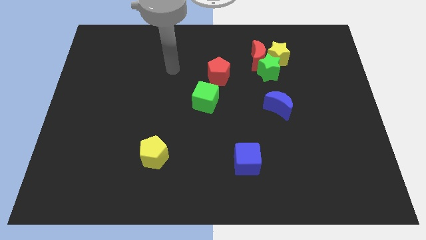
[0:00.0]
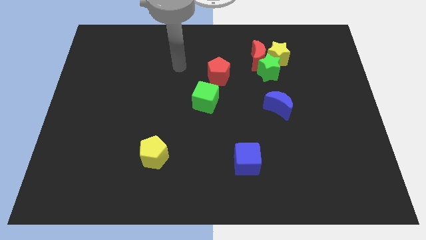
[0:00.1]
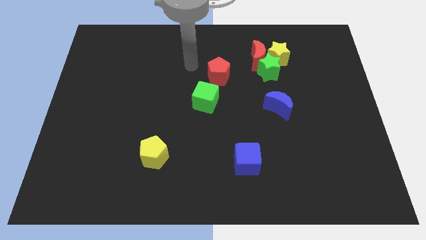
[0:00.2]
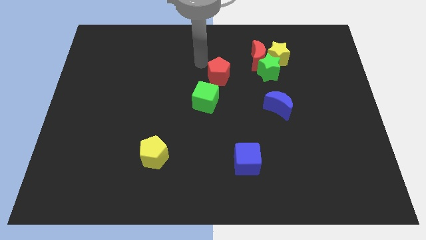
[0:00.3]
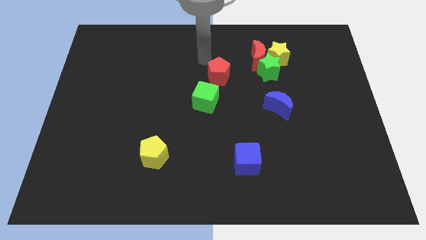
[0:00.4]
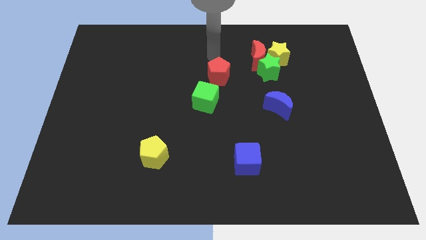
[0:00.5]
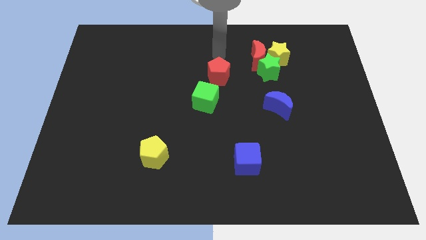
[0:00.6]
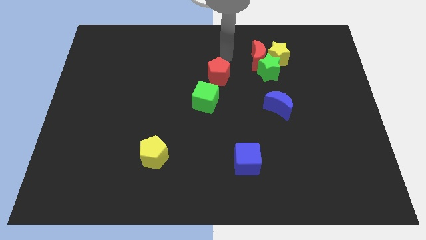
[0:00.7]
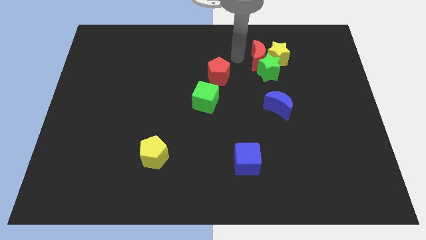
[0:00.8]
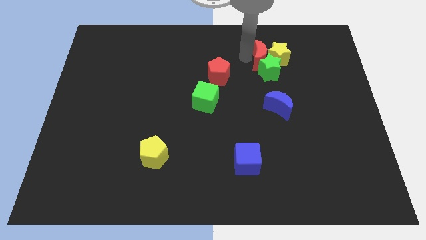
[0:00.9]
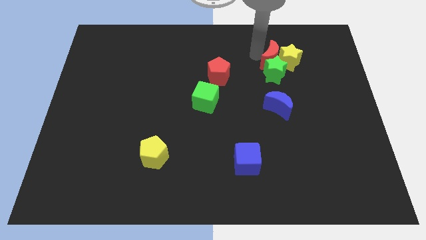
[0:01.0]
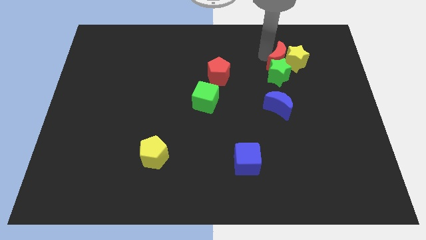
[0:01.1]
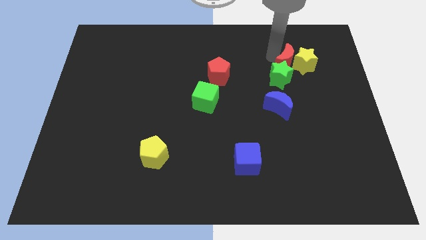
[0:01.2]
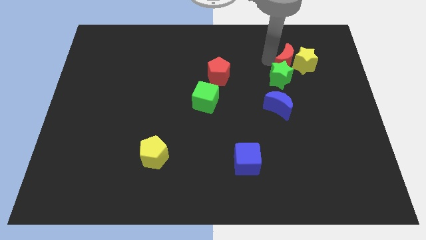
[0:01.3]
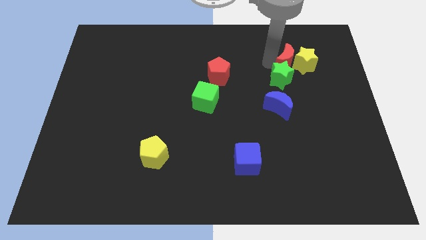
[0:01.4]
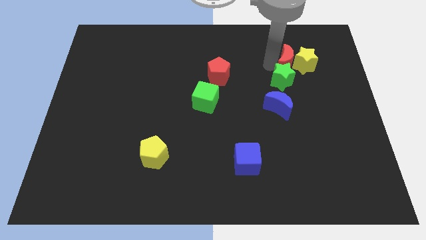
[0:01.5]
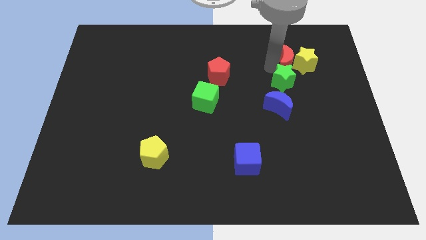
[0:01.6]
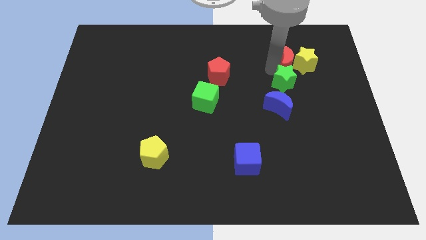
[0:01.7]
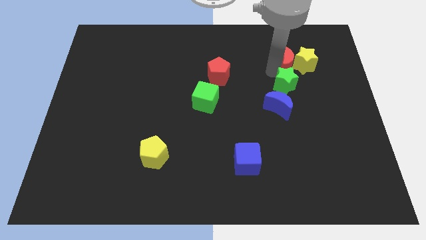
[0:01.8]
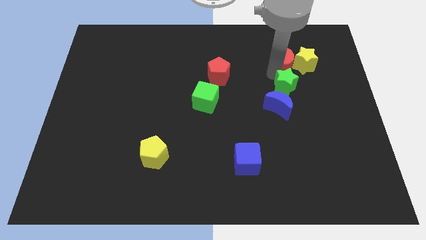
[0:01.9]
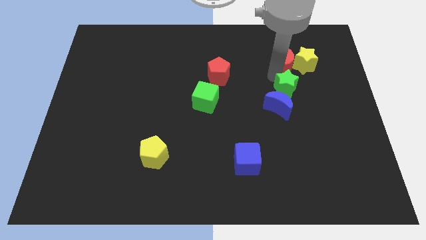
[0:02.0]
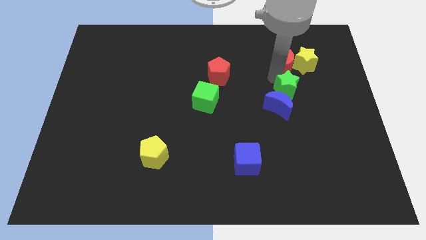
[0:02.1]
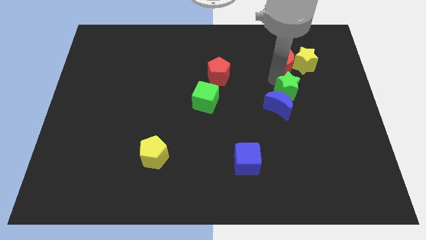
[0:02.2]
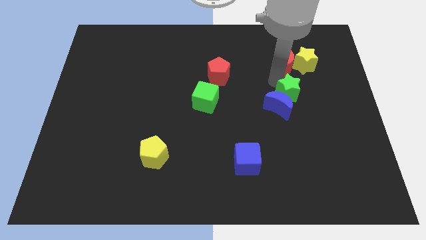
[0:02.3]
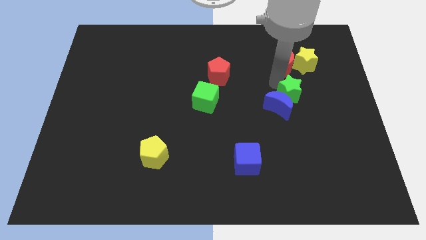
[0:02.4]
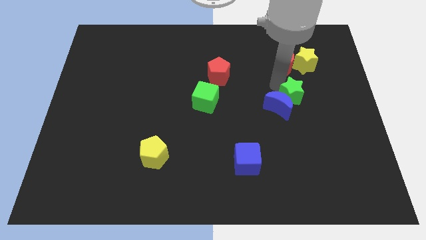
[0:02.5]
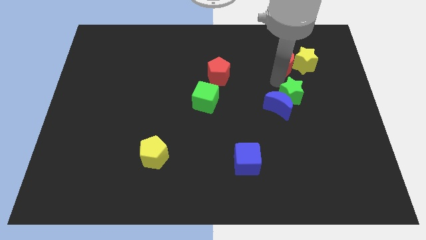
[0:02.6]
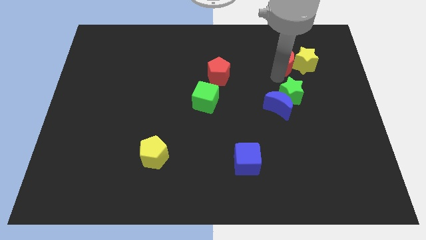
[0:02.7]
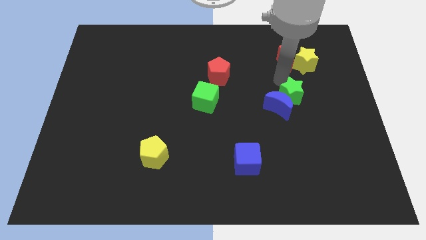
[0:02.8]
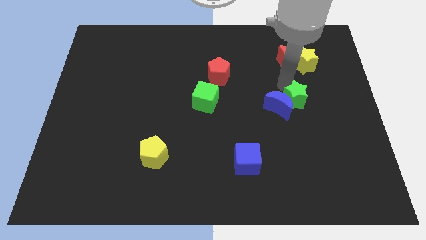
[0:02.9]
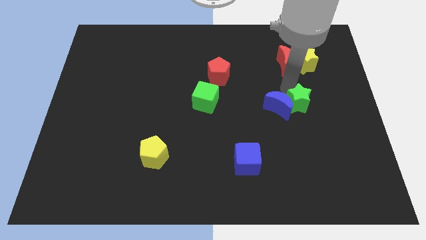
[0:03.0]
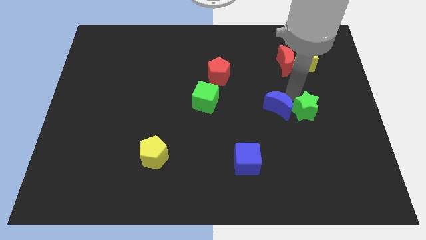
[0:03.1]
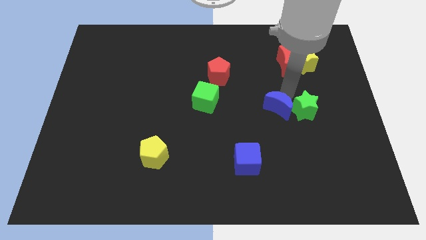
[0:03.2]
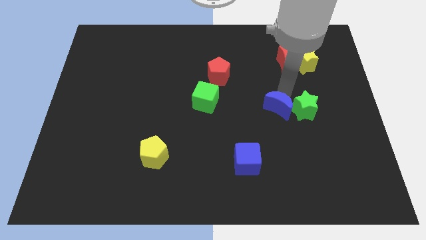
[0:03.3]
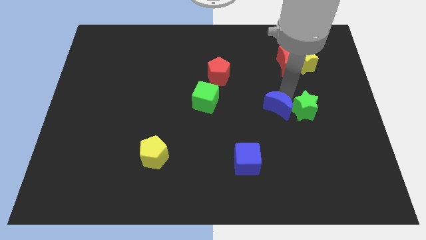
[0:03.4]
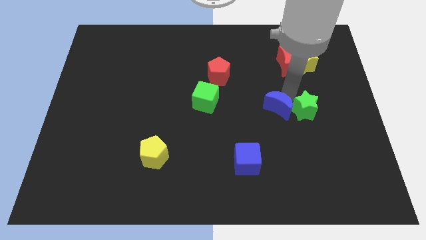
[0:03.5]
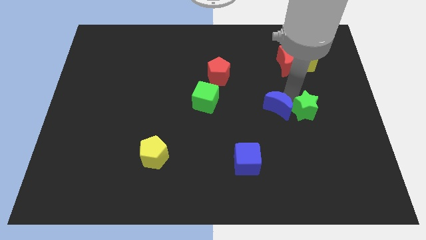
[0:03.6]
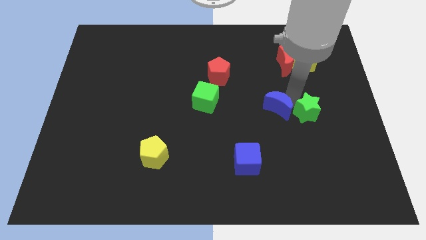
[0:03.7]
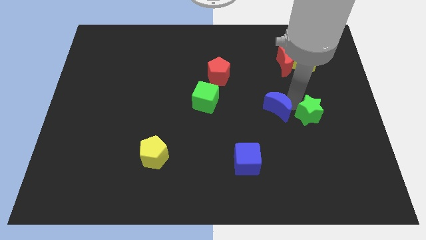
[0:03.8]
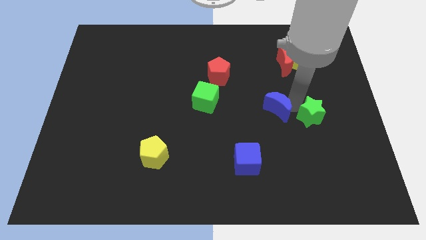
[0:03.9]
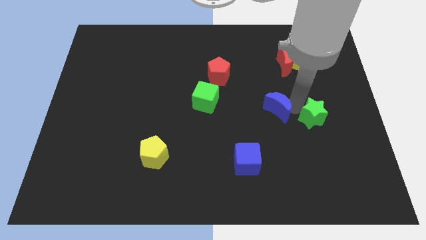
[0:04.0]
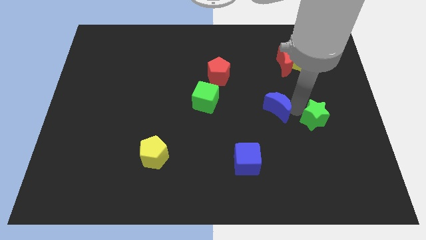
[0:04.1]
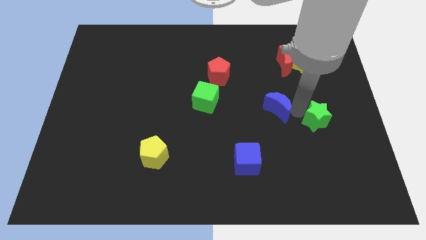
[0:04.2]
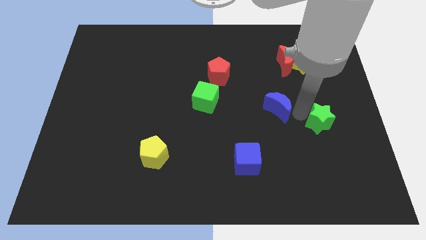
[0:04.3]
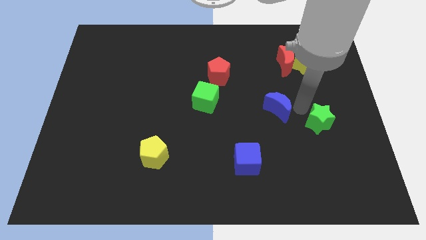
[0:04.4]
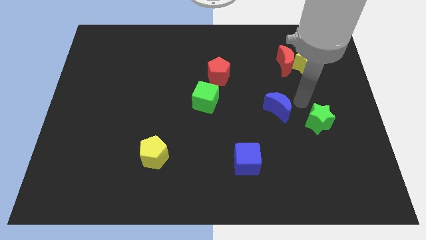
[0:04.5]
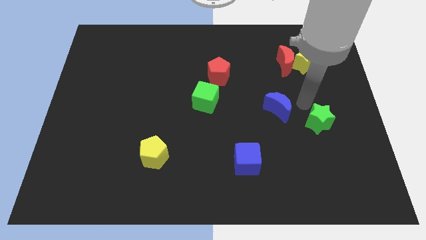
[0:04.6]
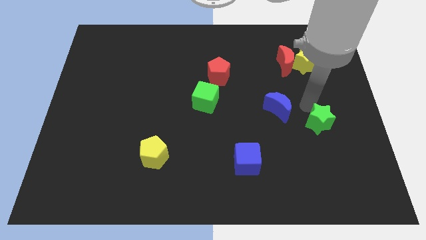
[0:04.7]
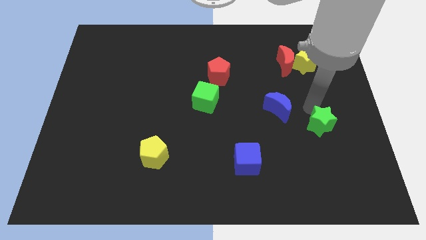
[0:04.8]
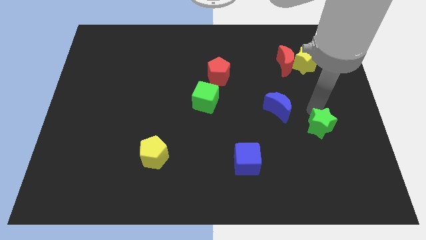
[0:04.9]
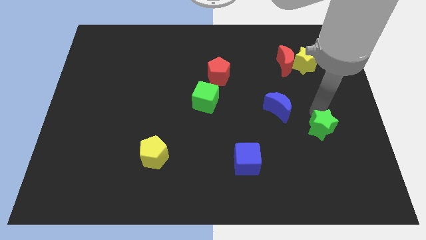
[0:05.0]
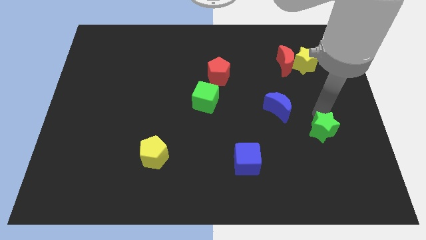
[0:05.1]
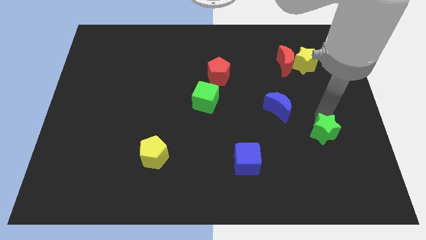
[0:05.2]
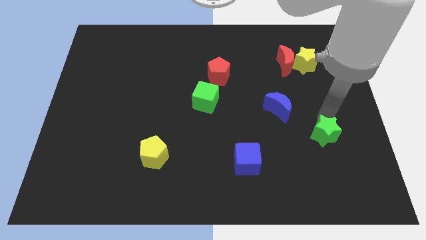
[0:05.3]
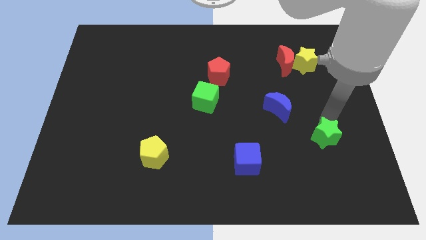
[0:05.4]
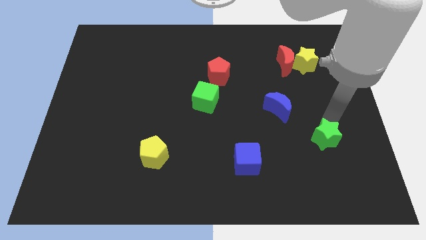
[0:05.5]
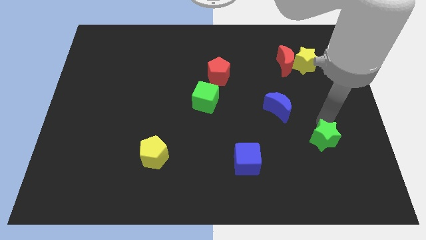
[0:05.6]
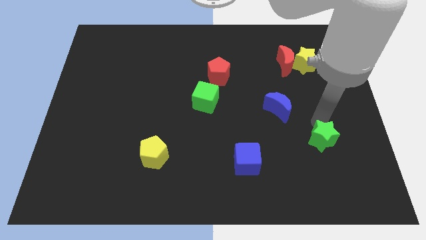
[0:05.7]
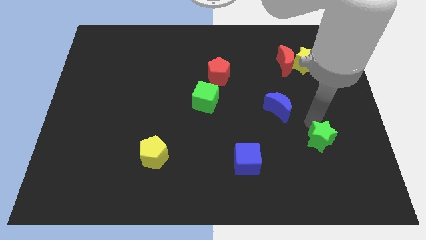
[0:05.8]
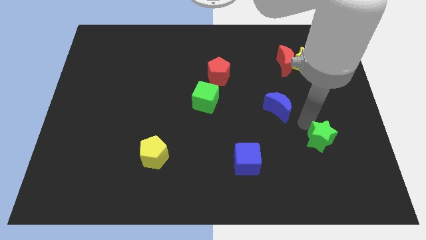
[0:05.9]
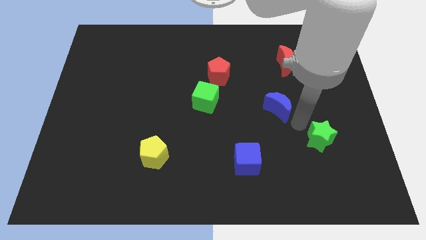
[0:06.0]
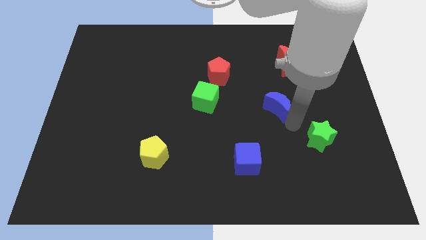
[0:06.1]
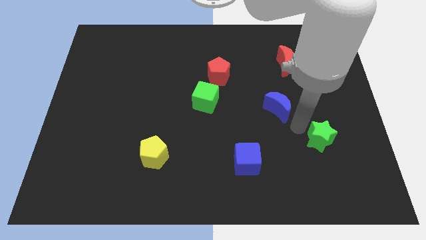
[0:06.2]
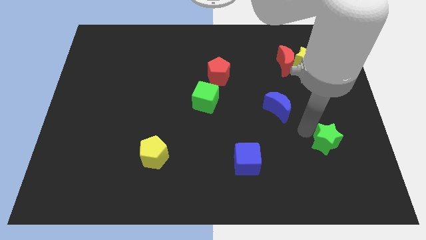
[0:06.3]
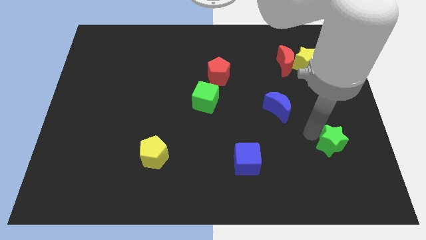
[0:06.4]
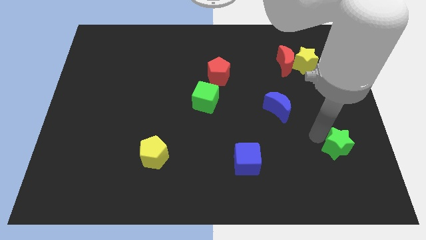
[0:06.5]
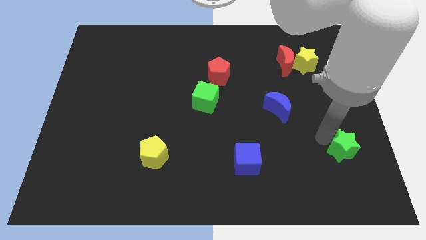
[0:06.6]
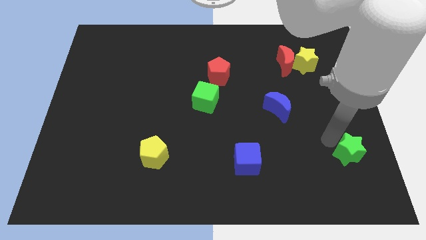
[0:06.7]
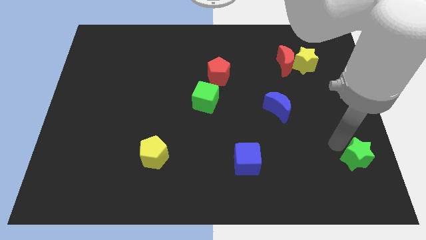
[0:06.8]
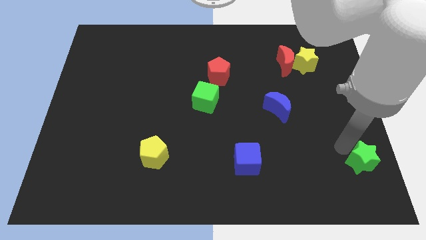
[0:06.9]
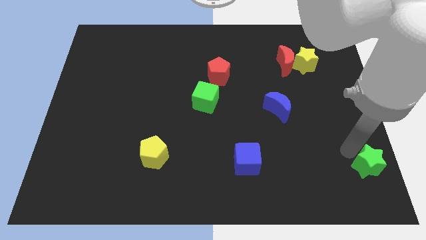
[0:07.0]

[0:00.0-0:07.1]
move the green star to the bottom right
